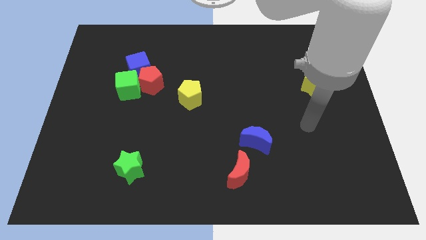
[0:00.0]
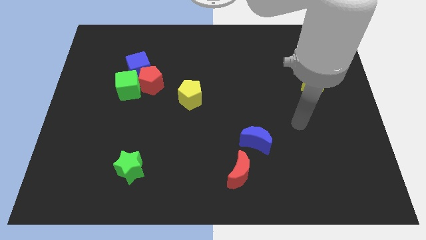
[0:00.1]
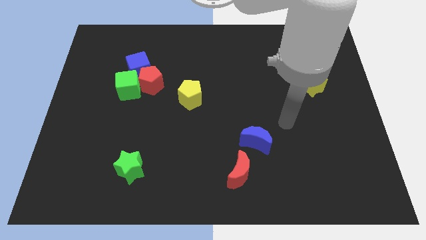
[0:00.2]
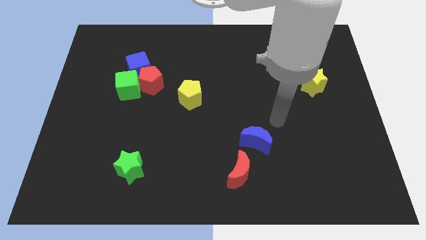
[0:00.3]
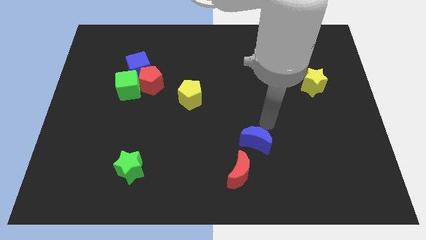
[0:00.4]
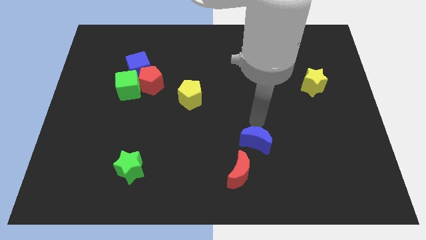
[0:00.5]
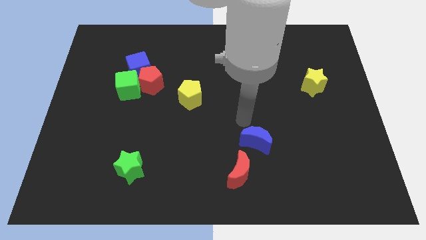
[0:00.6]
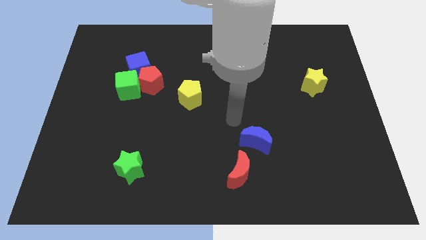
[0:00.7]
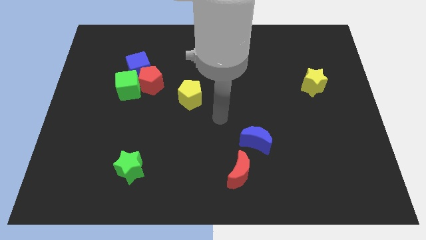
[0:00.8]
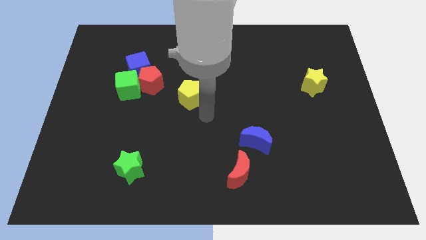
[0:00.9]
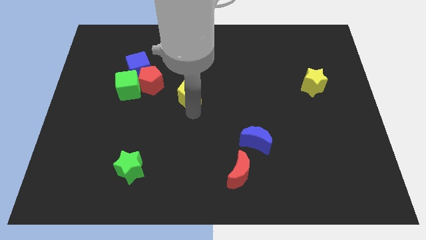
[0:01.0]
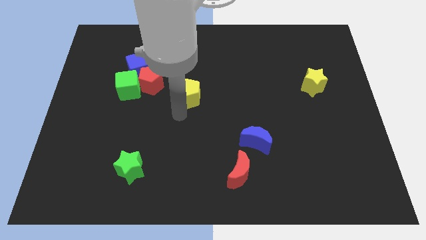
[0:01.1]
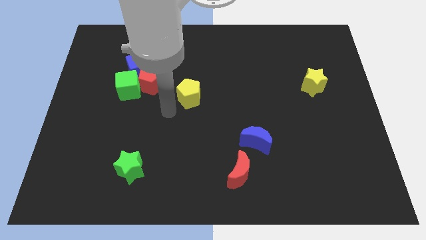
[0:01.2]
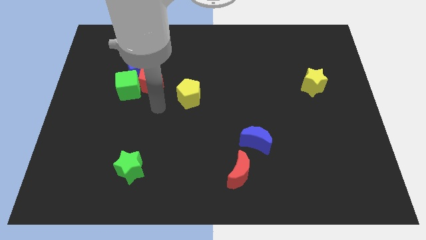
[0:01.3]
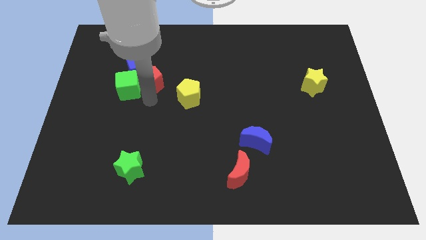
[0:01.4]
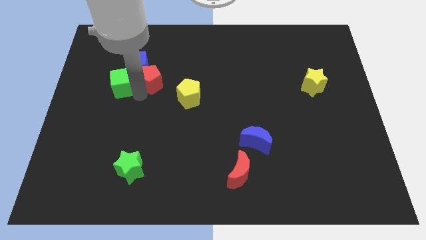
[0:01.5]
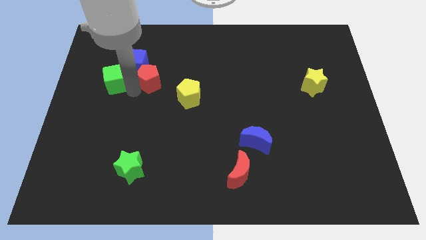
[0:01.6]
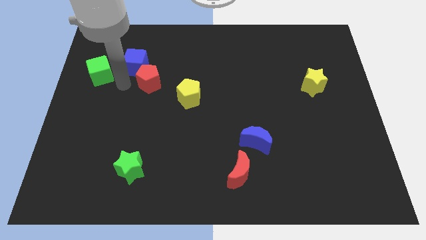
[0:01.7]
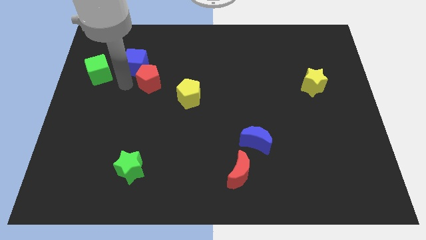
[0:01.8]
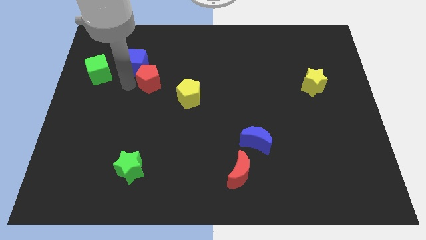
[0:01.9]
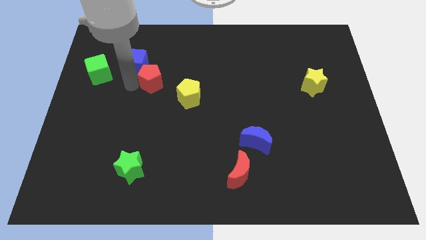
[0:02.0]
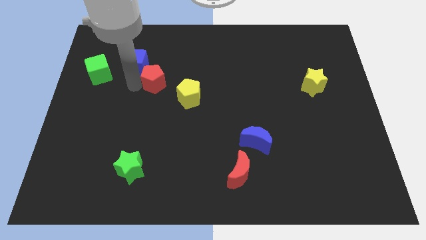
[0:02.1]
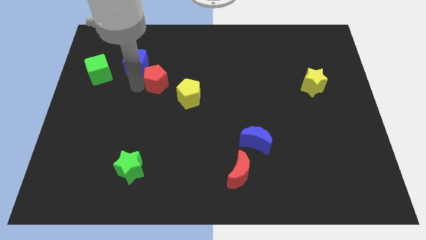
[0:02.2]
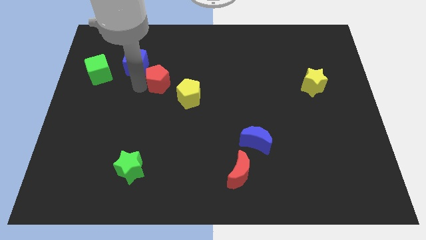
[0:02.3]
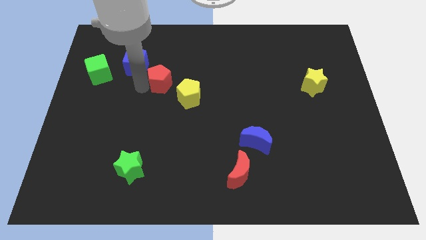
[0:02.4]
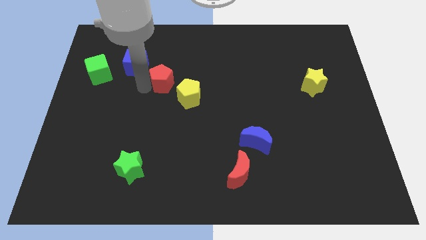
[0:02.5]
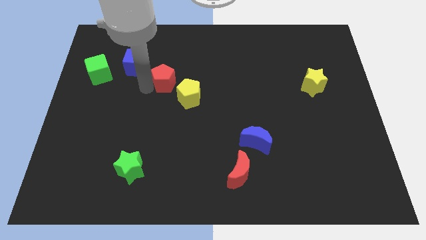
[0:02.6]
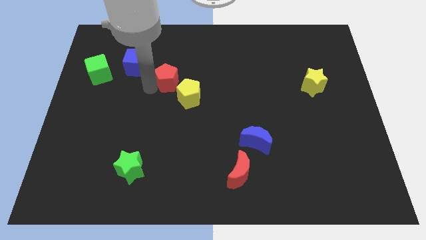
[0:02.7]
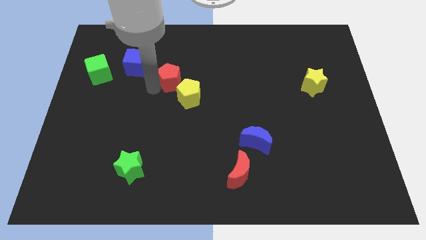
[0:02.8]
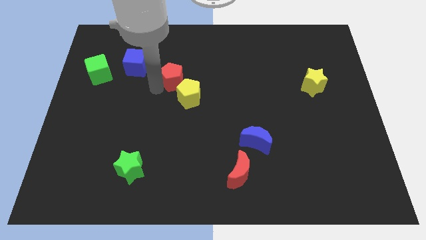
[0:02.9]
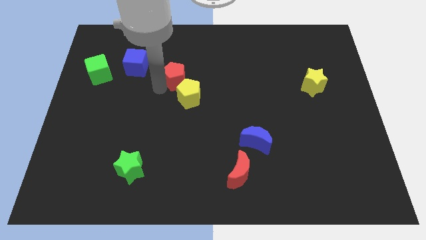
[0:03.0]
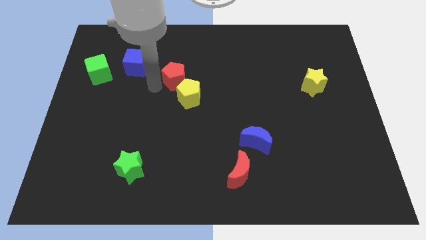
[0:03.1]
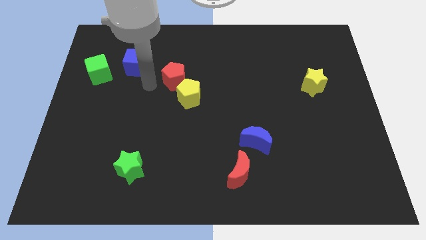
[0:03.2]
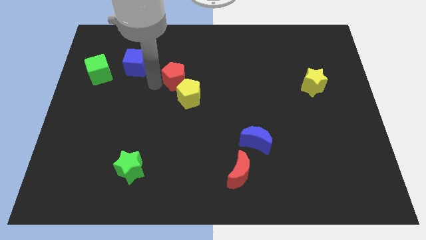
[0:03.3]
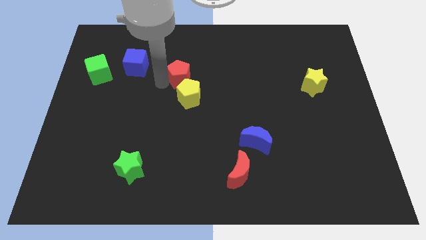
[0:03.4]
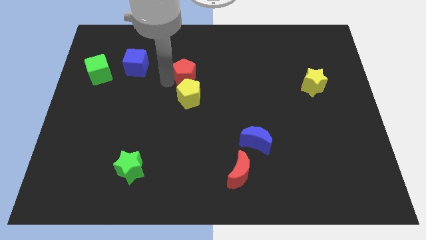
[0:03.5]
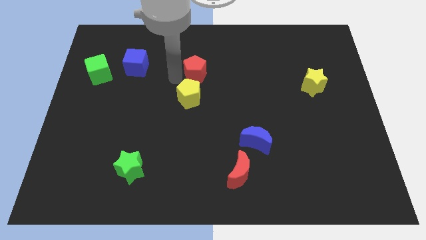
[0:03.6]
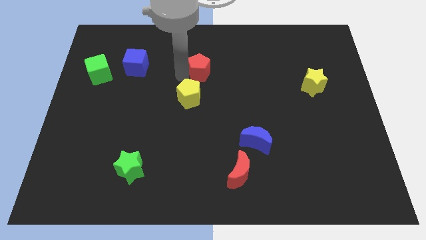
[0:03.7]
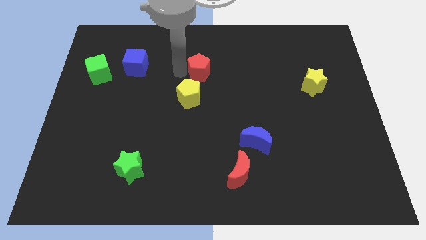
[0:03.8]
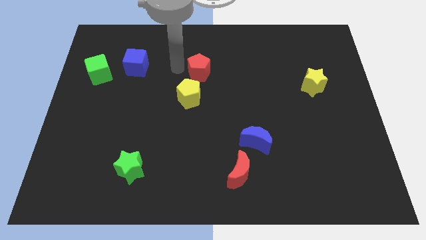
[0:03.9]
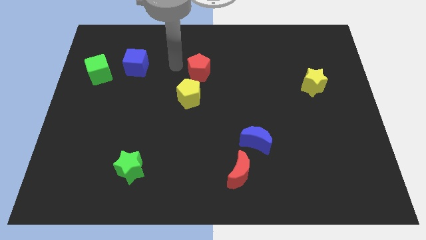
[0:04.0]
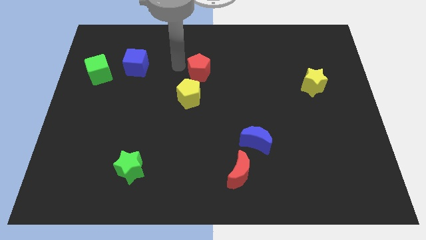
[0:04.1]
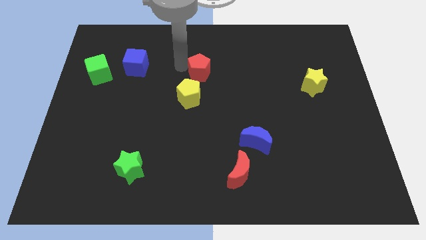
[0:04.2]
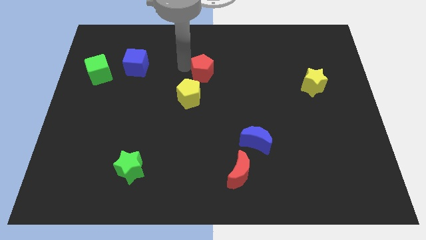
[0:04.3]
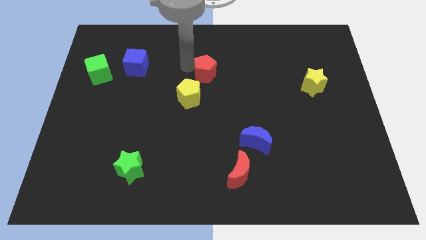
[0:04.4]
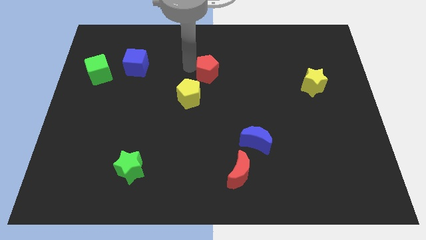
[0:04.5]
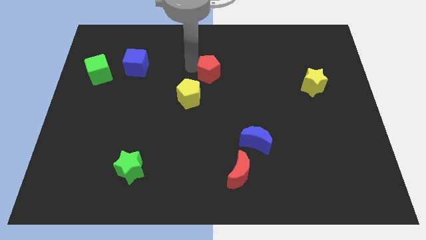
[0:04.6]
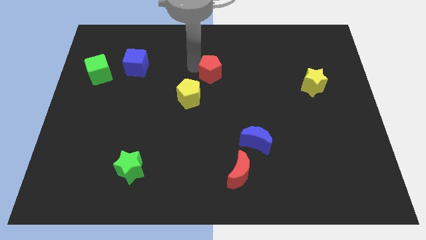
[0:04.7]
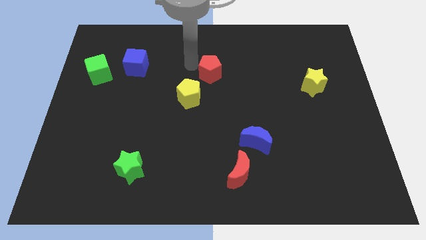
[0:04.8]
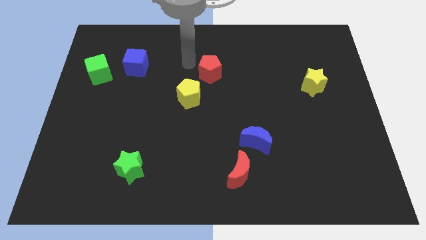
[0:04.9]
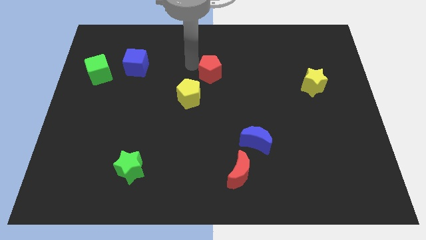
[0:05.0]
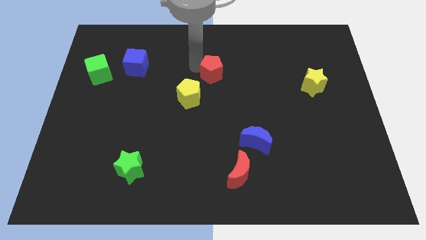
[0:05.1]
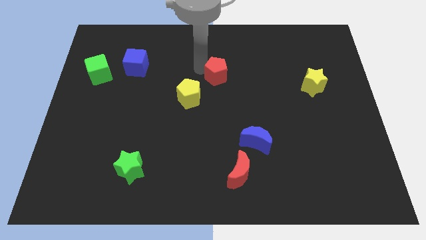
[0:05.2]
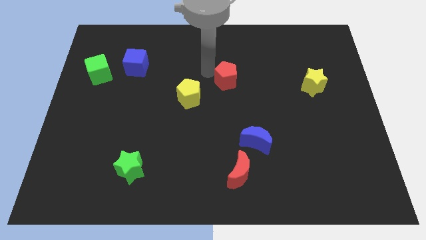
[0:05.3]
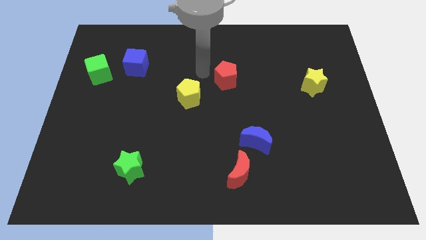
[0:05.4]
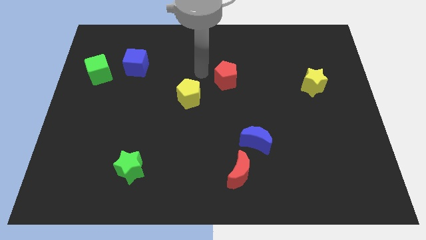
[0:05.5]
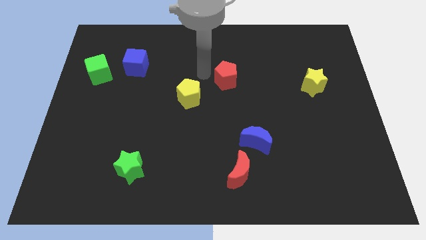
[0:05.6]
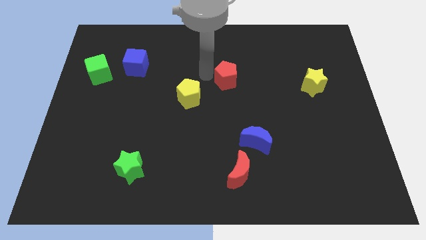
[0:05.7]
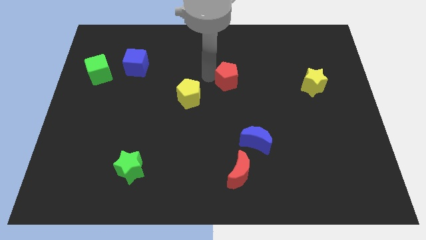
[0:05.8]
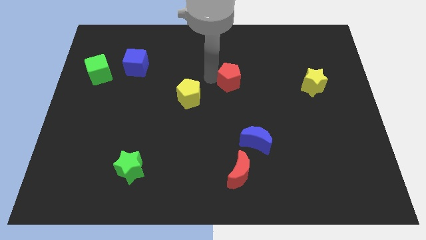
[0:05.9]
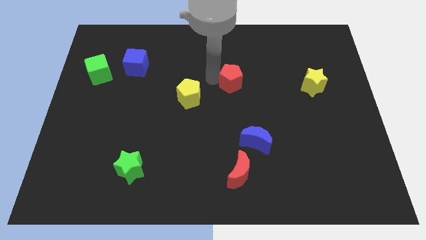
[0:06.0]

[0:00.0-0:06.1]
move the red pentagon right

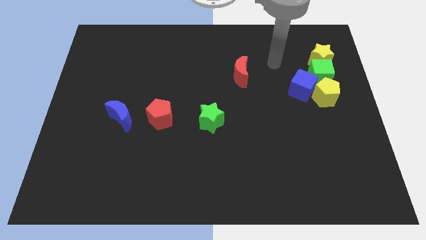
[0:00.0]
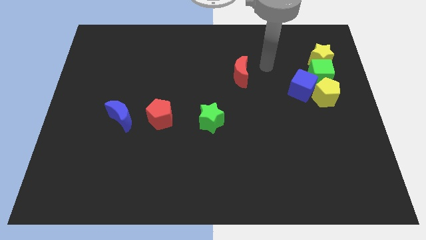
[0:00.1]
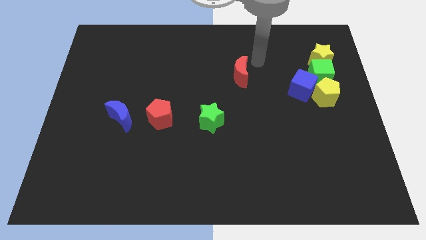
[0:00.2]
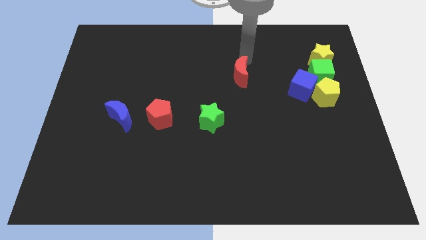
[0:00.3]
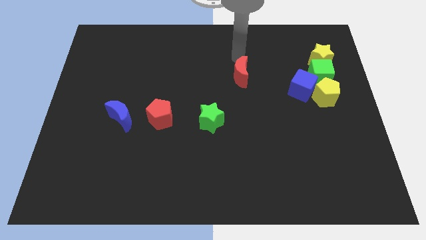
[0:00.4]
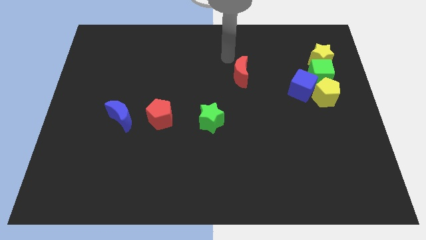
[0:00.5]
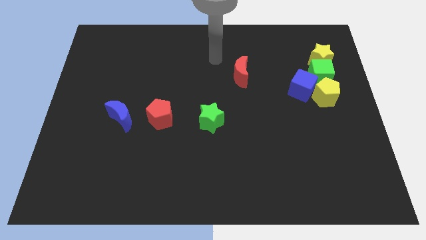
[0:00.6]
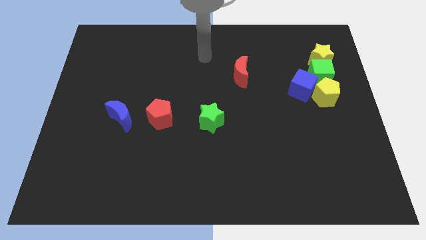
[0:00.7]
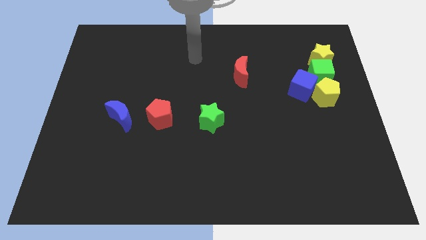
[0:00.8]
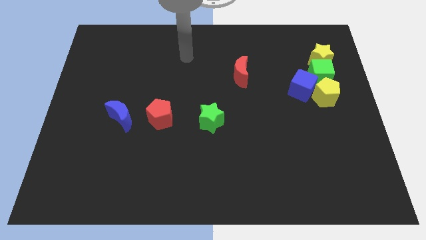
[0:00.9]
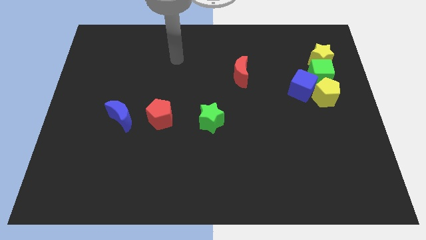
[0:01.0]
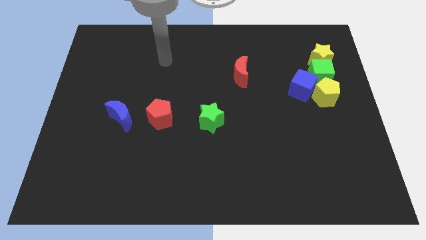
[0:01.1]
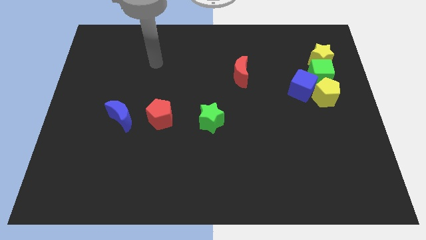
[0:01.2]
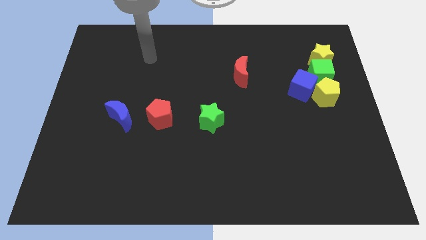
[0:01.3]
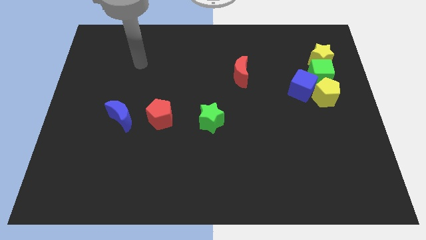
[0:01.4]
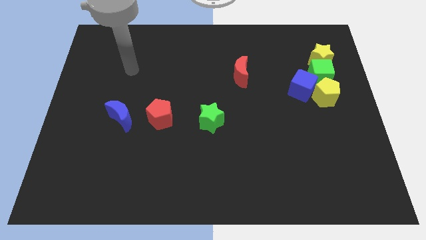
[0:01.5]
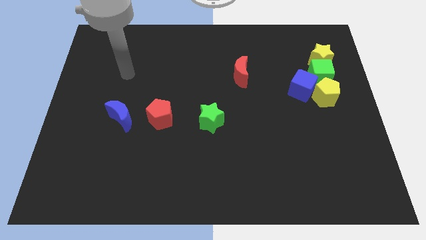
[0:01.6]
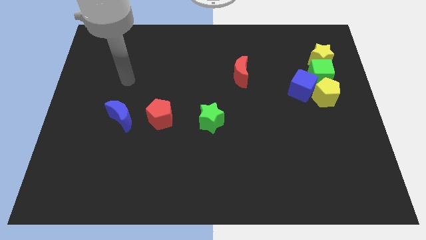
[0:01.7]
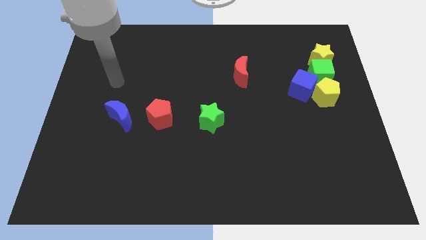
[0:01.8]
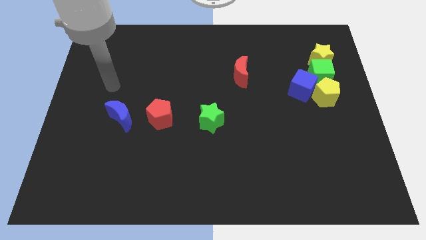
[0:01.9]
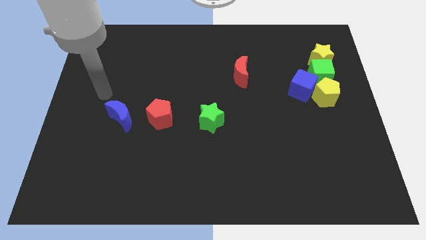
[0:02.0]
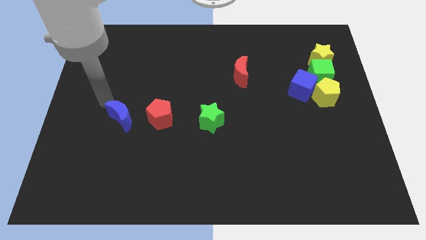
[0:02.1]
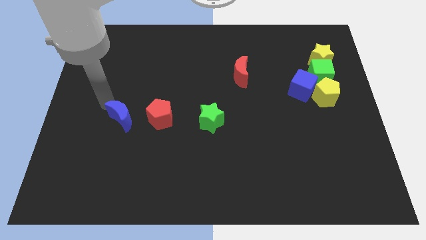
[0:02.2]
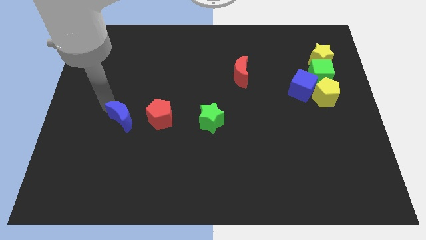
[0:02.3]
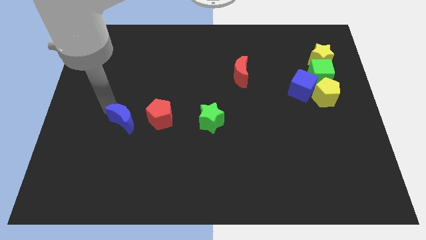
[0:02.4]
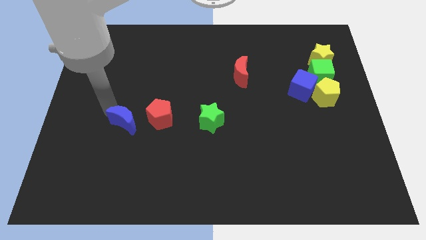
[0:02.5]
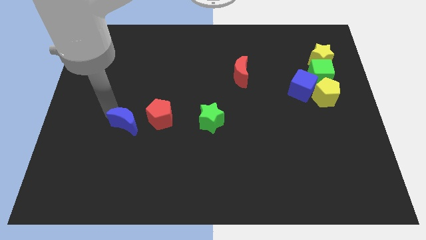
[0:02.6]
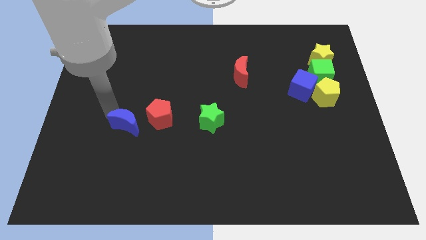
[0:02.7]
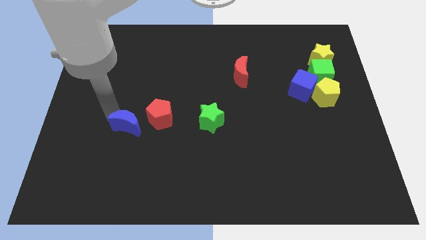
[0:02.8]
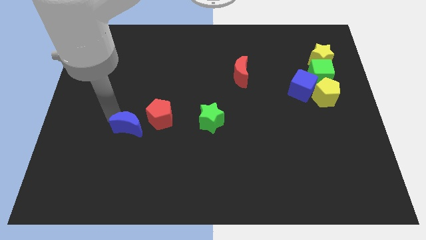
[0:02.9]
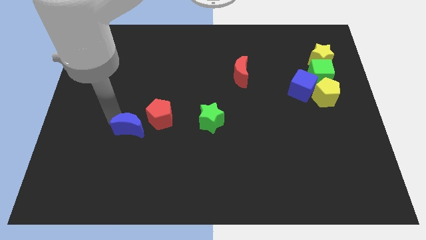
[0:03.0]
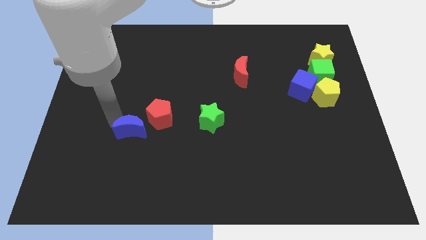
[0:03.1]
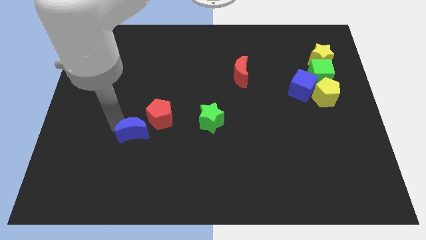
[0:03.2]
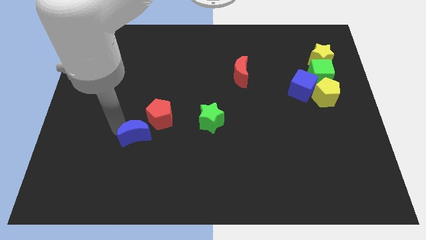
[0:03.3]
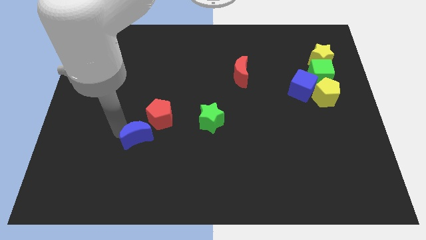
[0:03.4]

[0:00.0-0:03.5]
push the blue moon diagonally down and to the right a little
